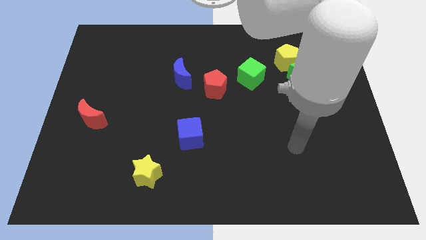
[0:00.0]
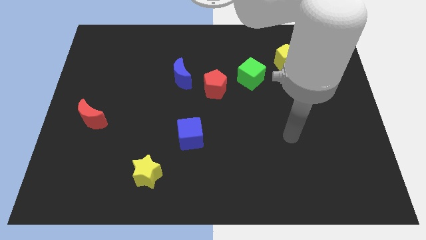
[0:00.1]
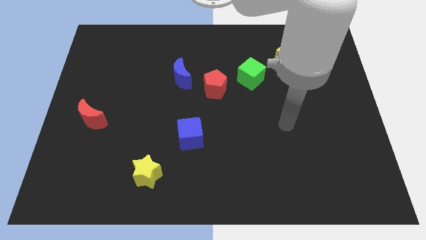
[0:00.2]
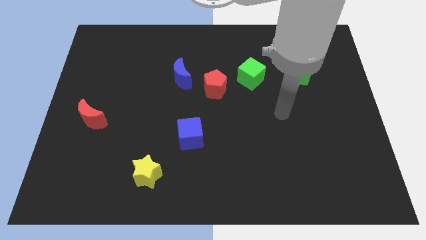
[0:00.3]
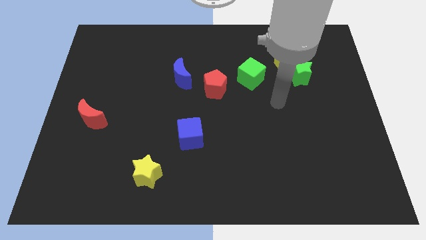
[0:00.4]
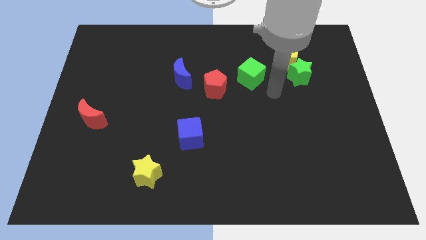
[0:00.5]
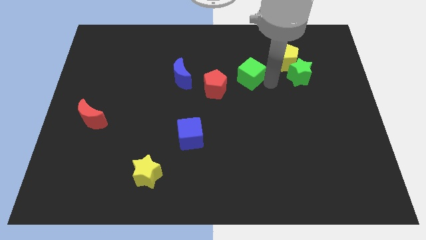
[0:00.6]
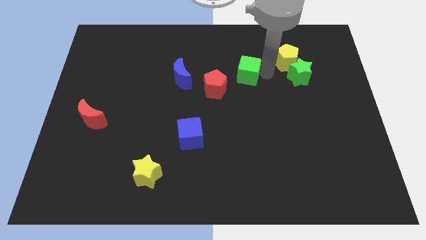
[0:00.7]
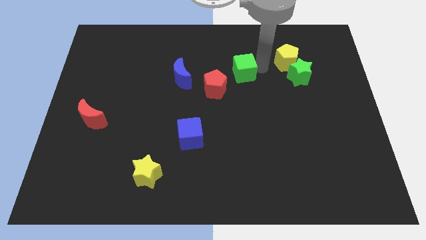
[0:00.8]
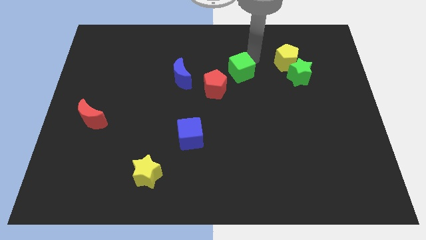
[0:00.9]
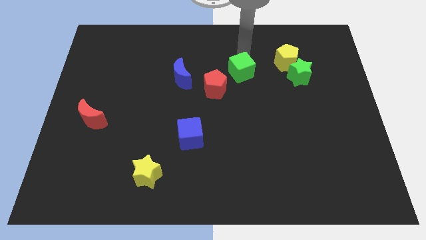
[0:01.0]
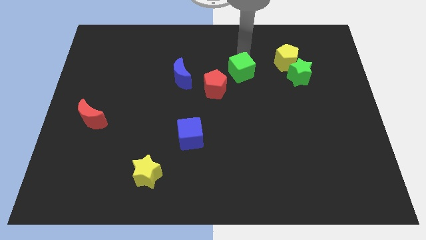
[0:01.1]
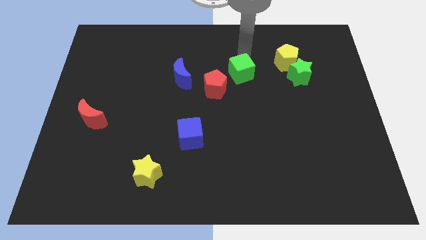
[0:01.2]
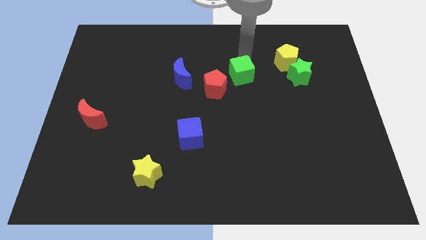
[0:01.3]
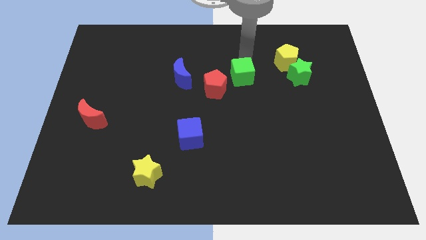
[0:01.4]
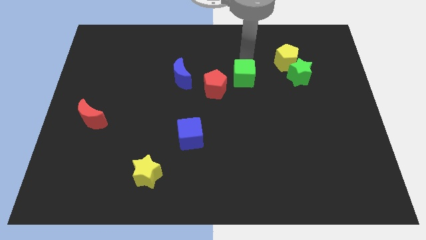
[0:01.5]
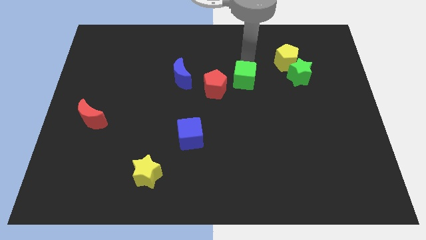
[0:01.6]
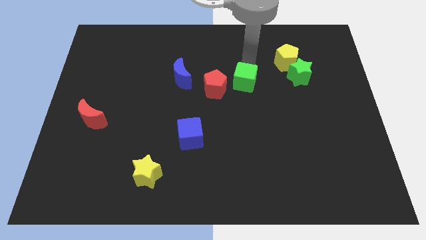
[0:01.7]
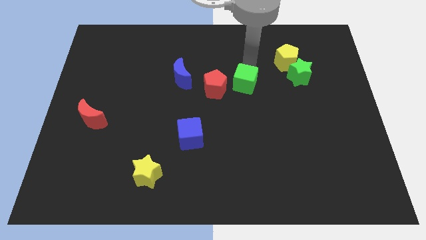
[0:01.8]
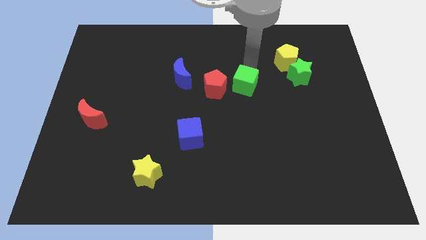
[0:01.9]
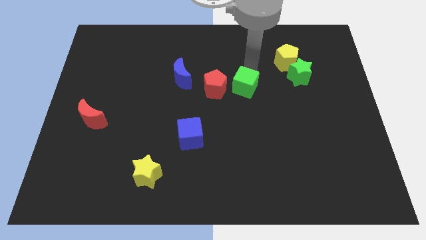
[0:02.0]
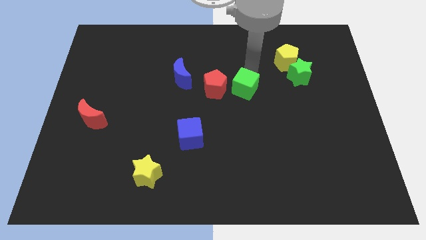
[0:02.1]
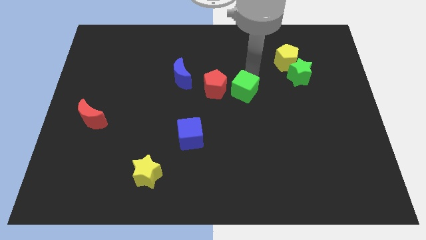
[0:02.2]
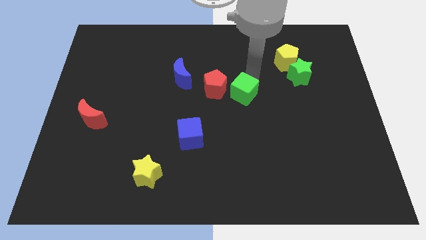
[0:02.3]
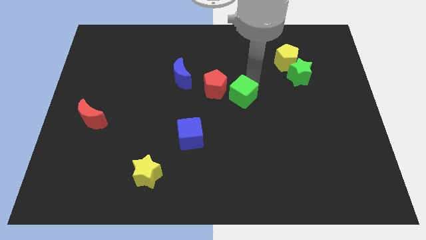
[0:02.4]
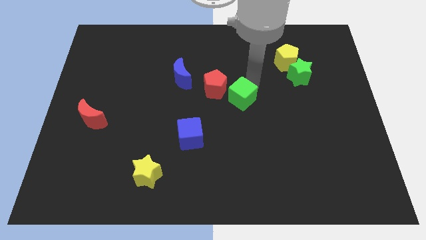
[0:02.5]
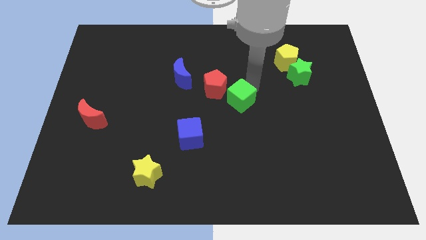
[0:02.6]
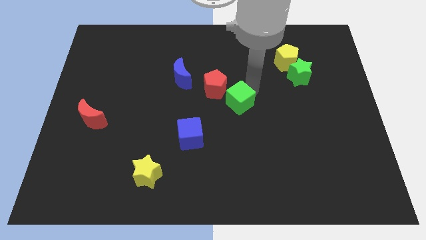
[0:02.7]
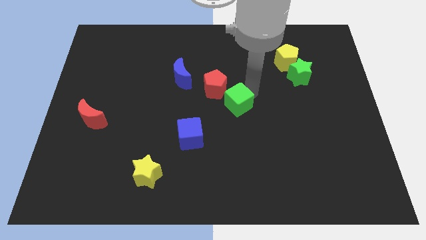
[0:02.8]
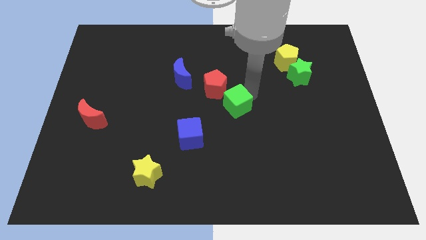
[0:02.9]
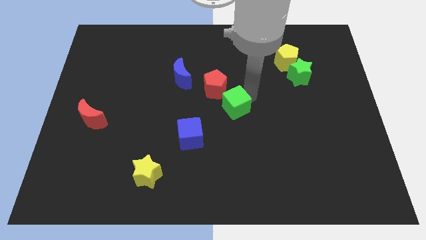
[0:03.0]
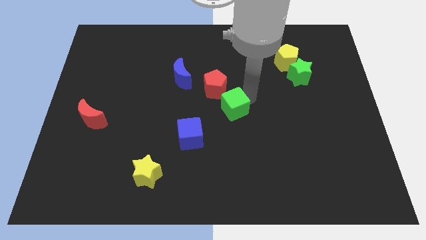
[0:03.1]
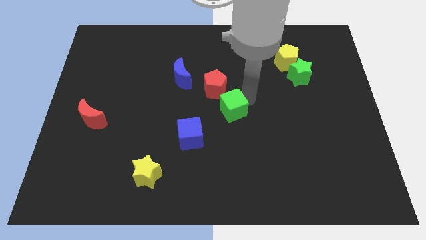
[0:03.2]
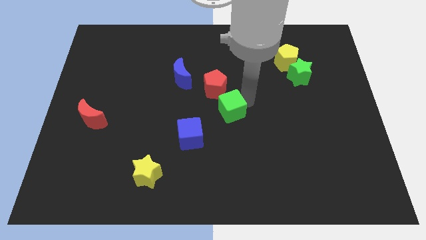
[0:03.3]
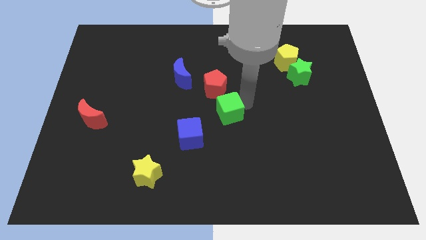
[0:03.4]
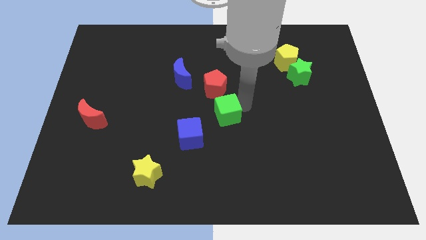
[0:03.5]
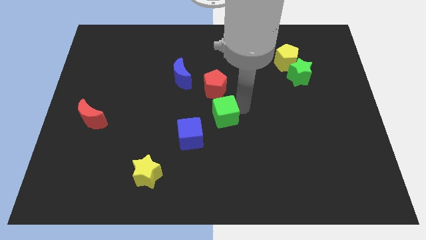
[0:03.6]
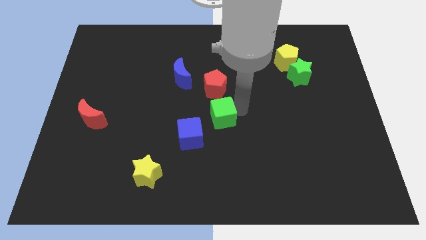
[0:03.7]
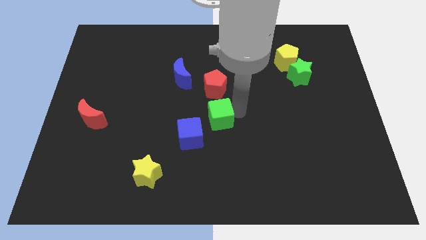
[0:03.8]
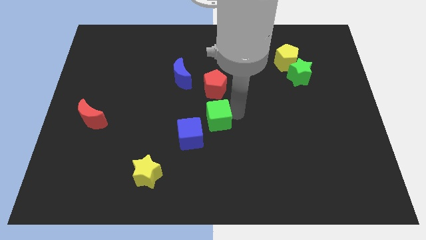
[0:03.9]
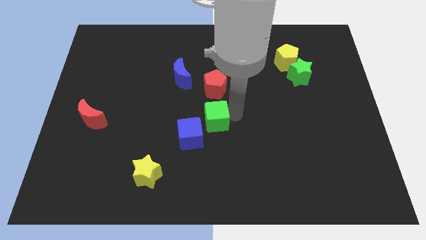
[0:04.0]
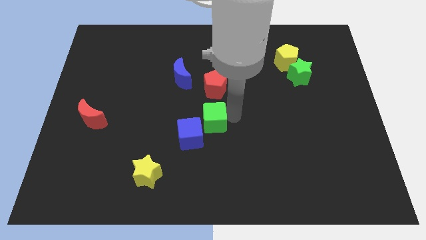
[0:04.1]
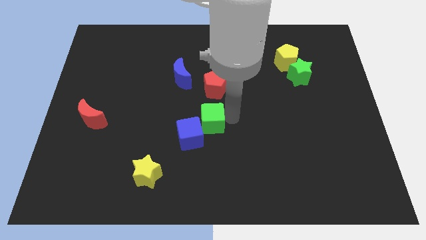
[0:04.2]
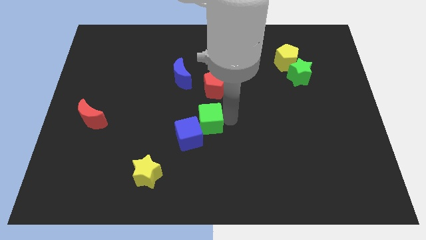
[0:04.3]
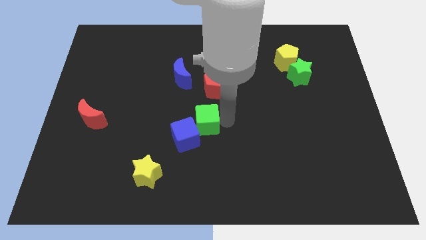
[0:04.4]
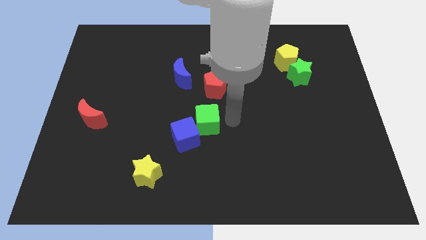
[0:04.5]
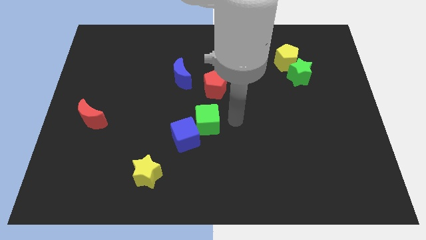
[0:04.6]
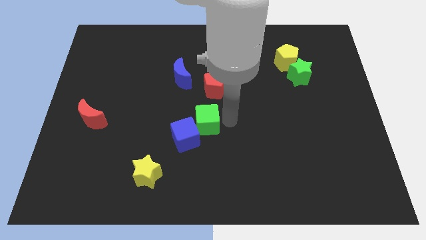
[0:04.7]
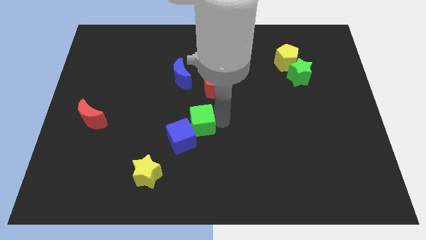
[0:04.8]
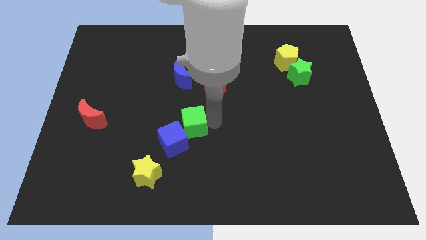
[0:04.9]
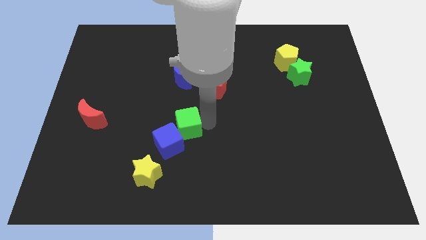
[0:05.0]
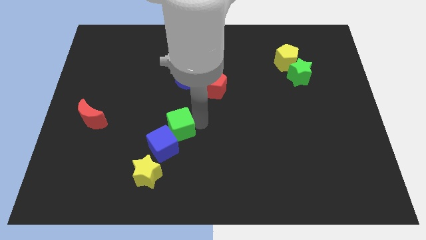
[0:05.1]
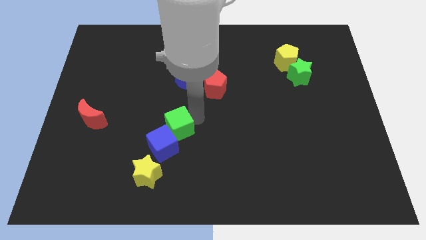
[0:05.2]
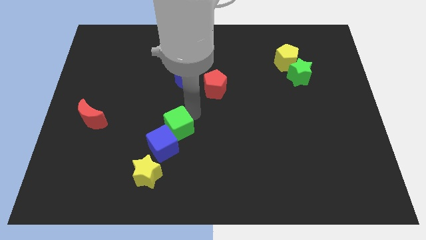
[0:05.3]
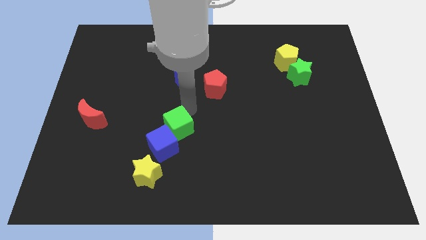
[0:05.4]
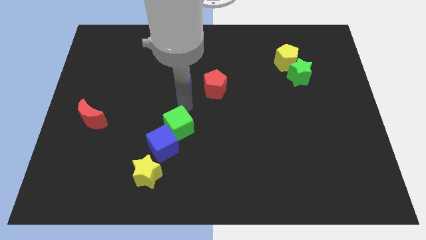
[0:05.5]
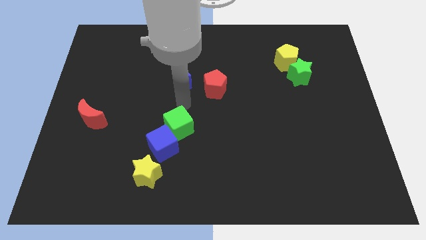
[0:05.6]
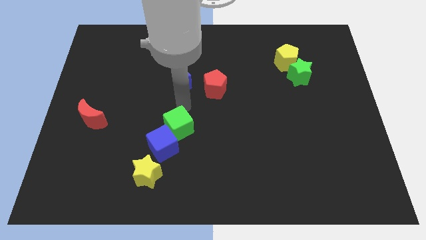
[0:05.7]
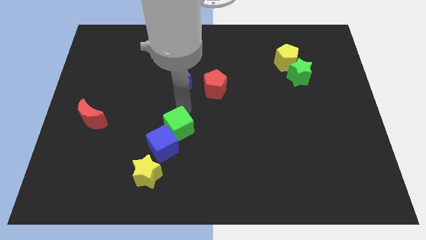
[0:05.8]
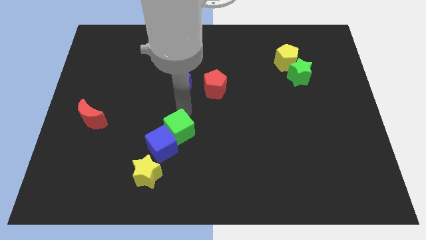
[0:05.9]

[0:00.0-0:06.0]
move the green cube diagonally up and to the right of the yellow star

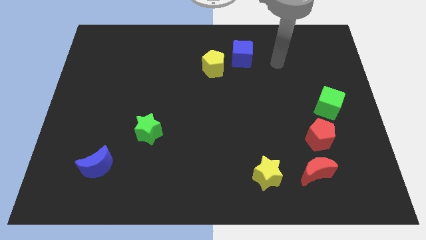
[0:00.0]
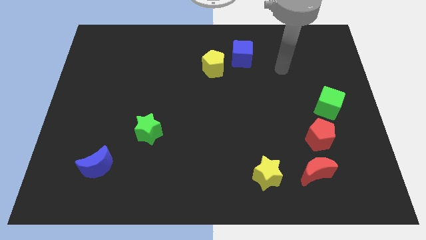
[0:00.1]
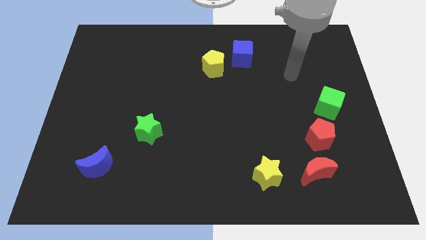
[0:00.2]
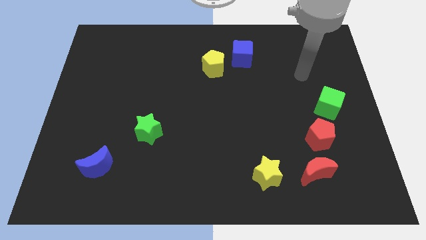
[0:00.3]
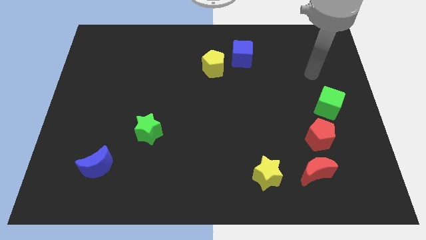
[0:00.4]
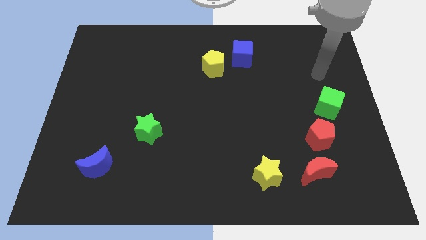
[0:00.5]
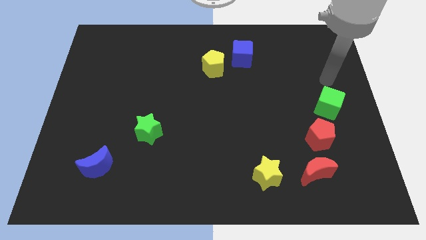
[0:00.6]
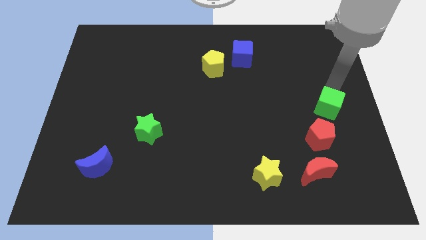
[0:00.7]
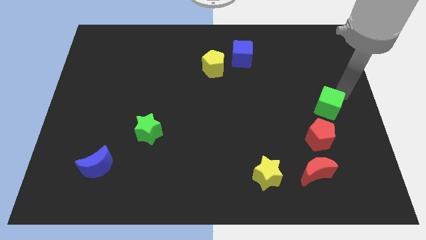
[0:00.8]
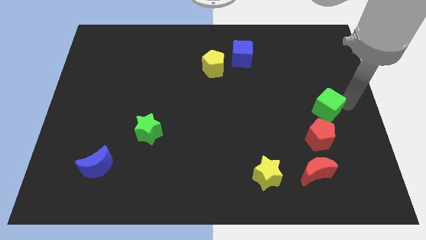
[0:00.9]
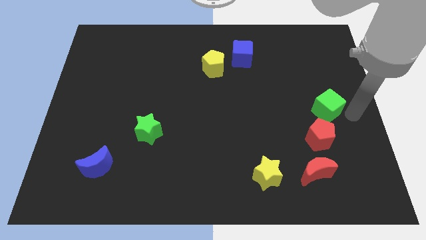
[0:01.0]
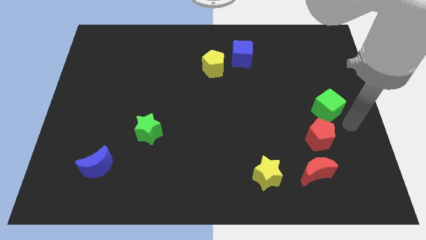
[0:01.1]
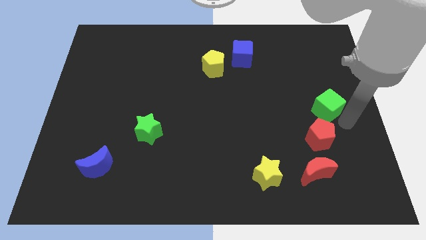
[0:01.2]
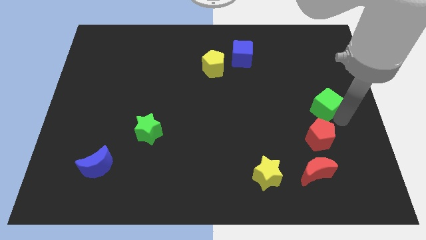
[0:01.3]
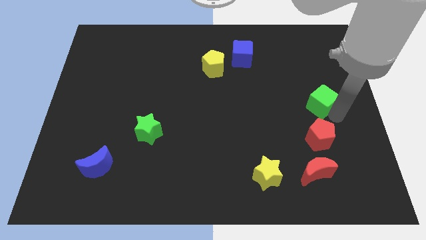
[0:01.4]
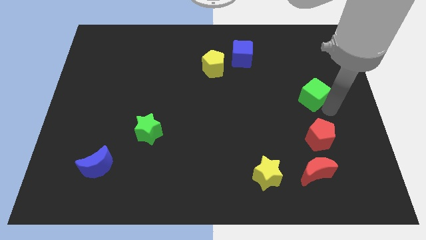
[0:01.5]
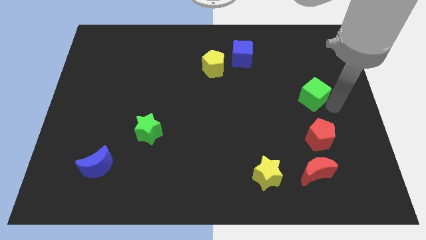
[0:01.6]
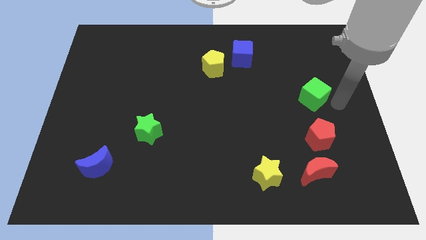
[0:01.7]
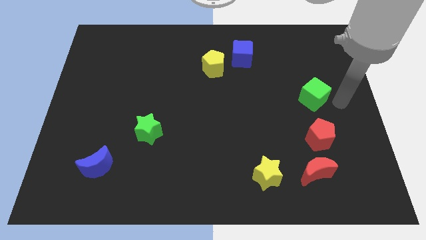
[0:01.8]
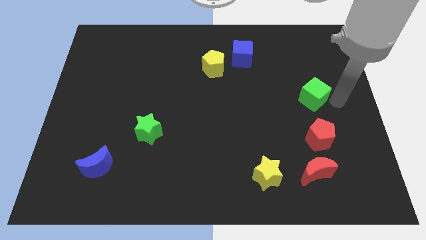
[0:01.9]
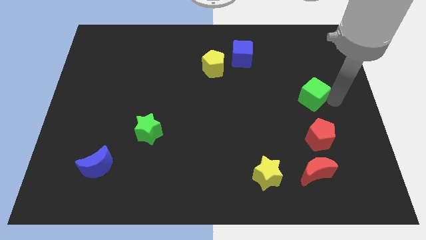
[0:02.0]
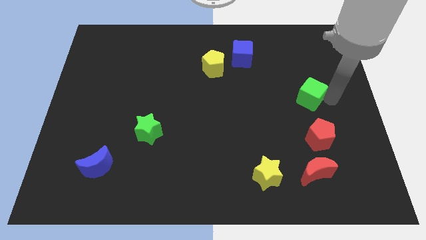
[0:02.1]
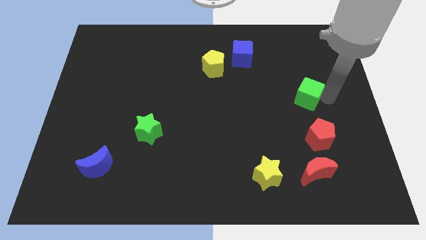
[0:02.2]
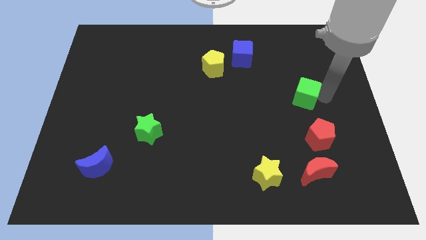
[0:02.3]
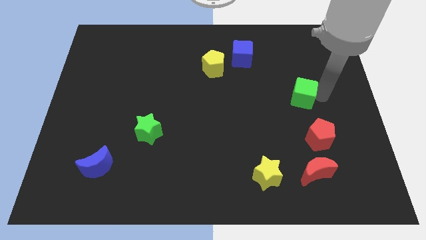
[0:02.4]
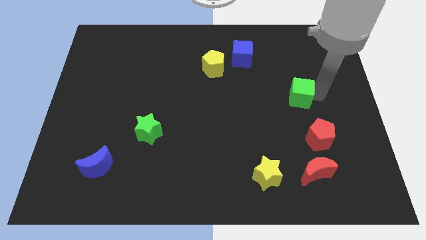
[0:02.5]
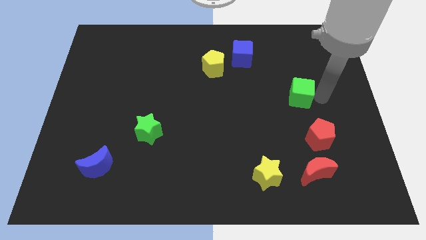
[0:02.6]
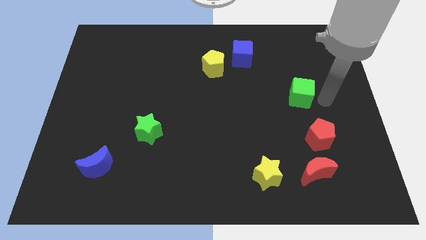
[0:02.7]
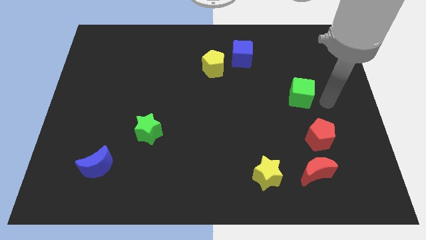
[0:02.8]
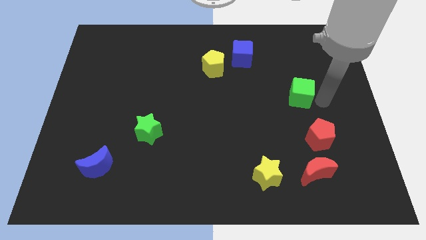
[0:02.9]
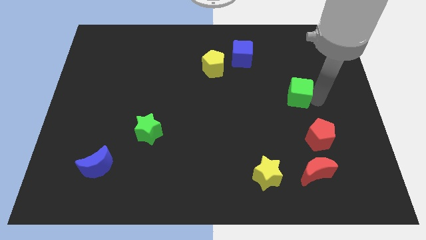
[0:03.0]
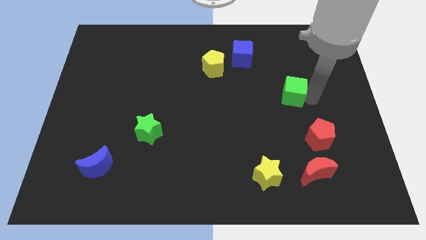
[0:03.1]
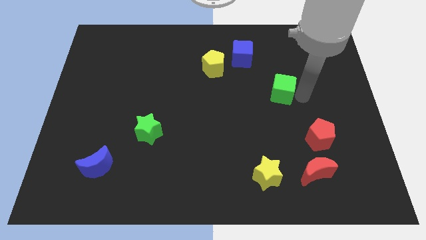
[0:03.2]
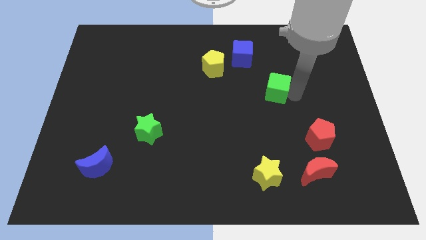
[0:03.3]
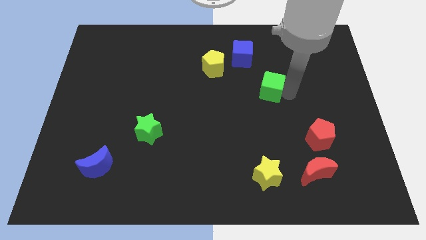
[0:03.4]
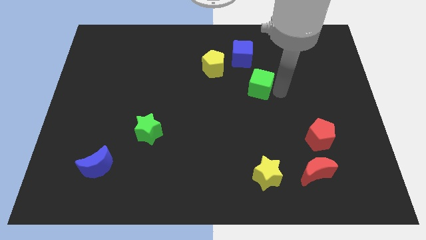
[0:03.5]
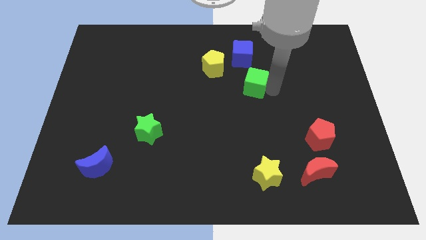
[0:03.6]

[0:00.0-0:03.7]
put the green cube diagonally down and to the right of the yellow pentagon
